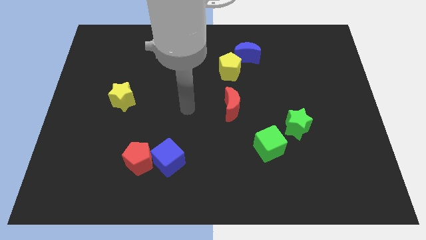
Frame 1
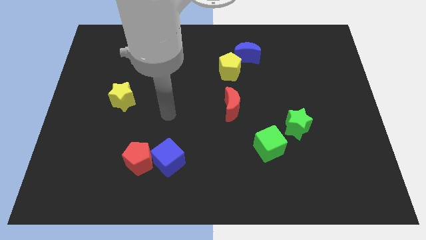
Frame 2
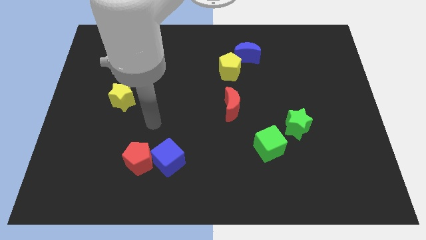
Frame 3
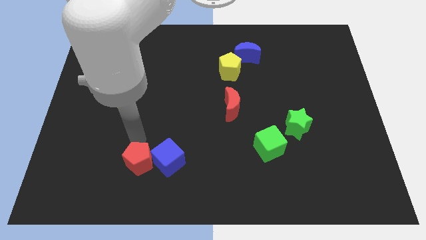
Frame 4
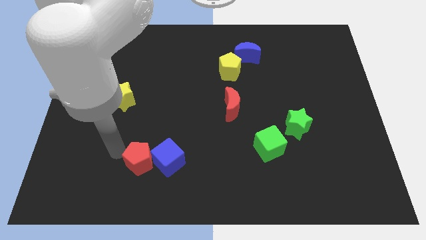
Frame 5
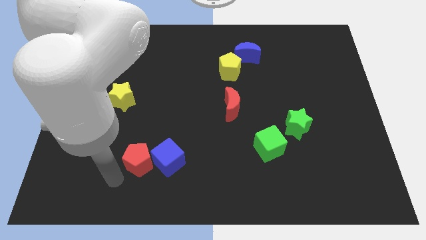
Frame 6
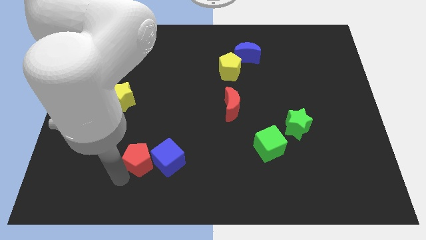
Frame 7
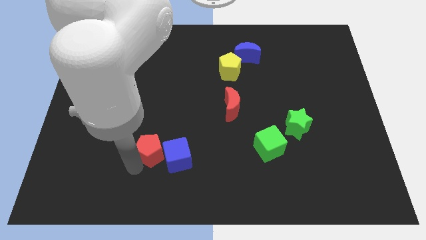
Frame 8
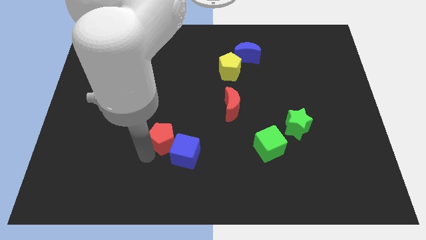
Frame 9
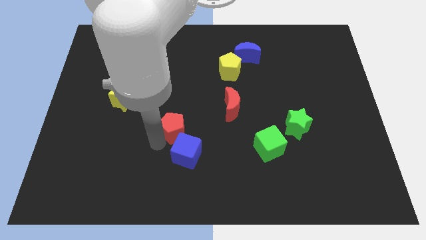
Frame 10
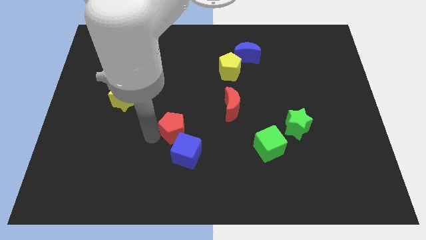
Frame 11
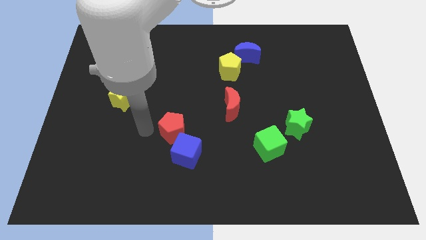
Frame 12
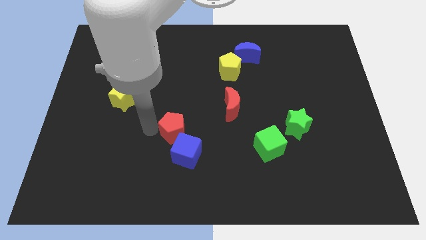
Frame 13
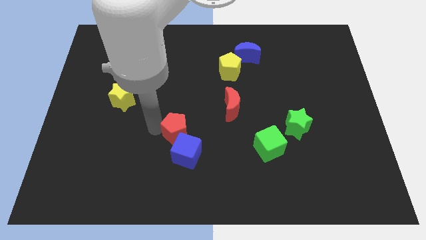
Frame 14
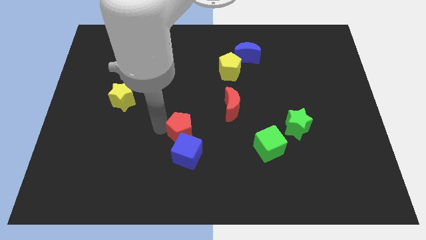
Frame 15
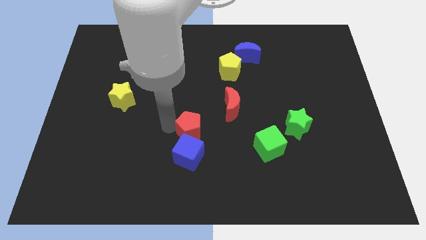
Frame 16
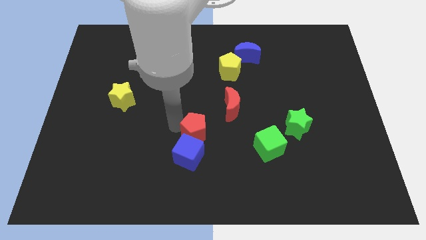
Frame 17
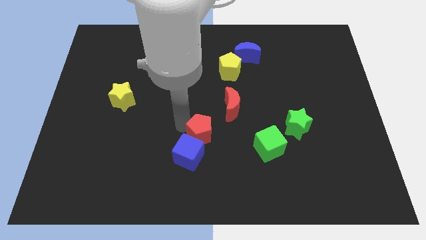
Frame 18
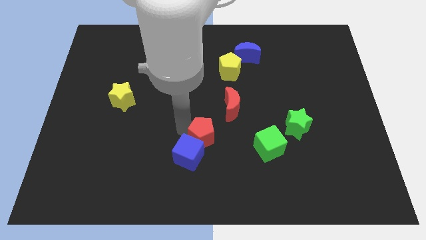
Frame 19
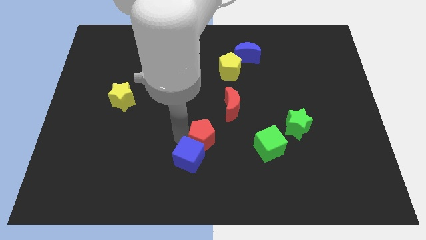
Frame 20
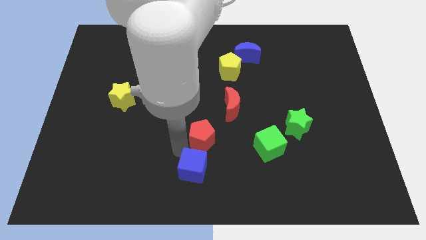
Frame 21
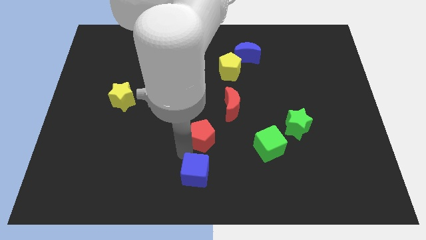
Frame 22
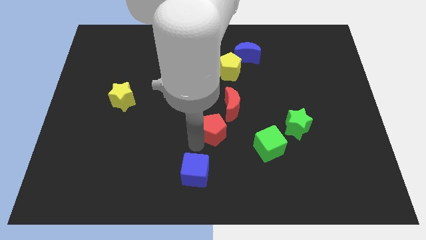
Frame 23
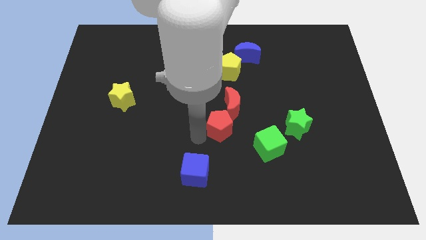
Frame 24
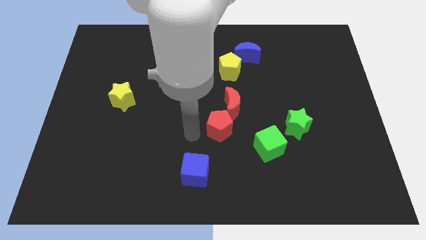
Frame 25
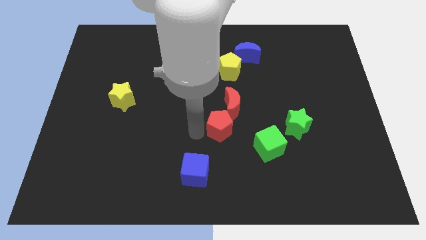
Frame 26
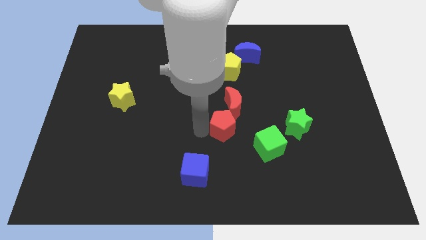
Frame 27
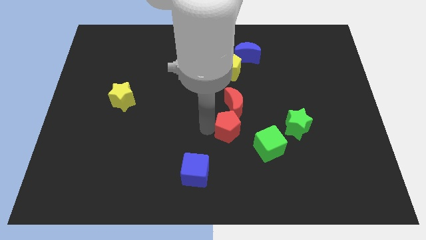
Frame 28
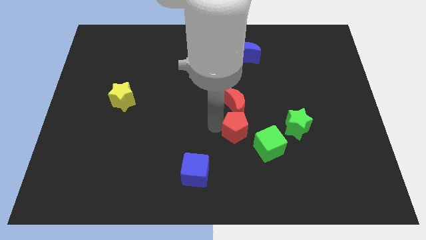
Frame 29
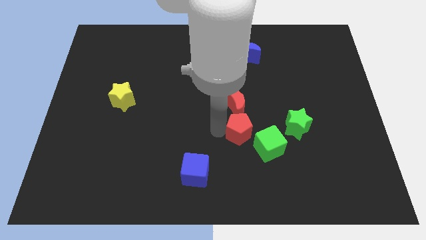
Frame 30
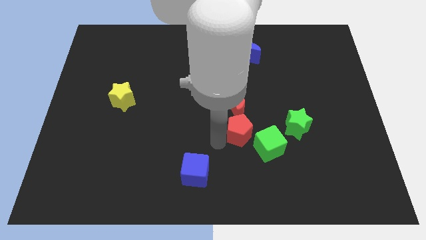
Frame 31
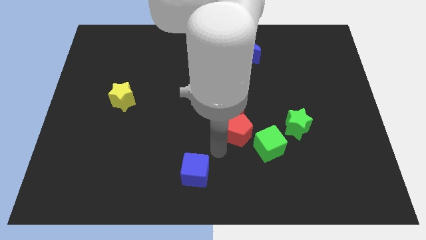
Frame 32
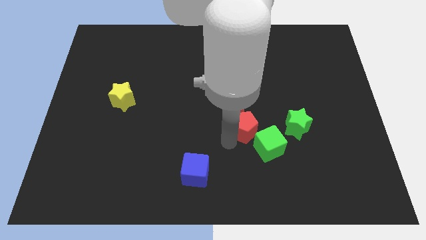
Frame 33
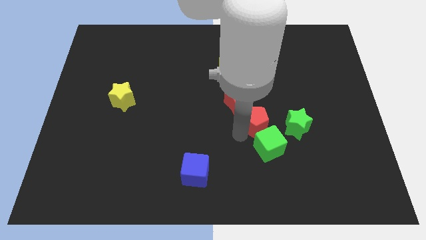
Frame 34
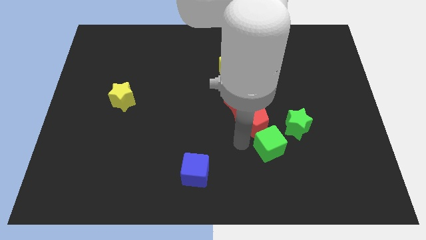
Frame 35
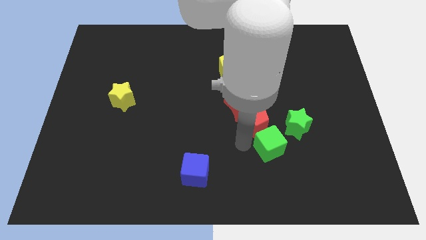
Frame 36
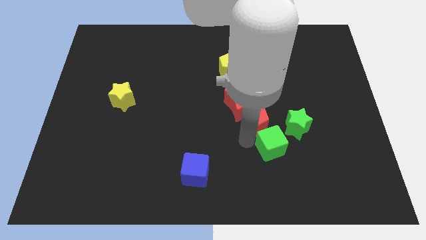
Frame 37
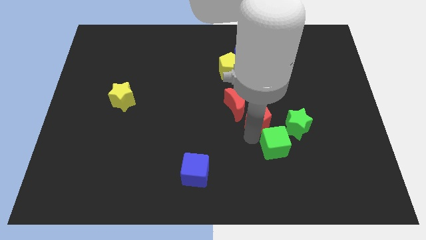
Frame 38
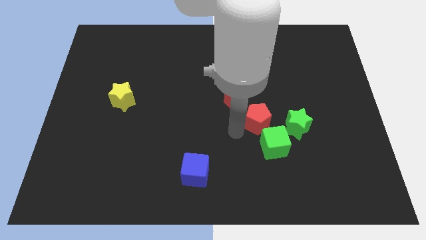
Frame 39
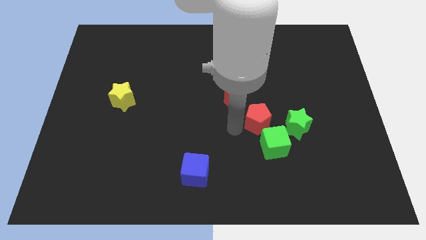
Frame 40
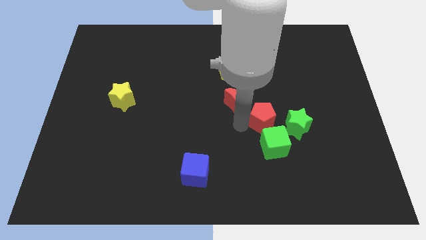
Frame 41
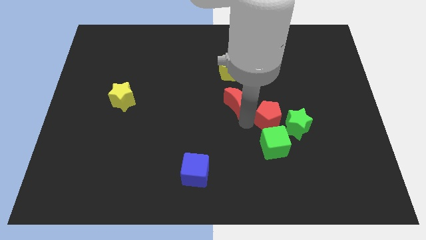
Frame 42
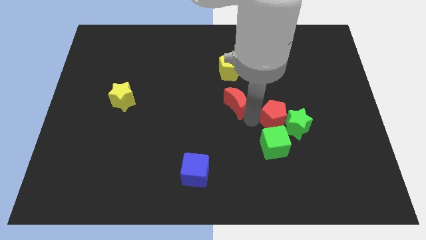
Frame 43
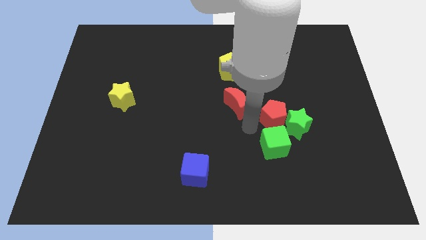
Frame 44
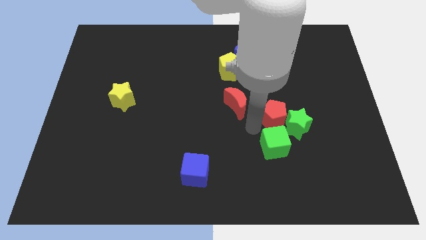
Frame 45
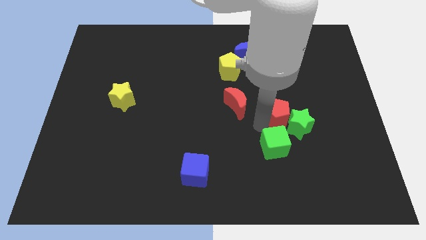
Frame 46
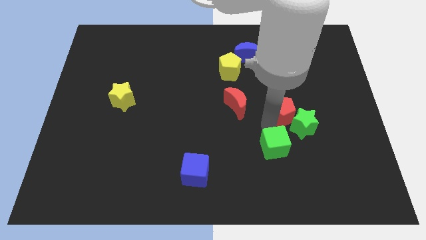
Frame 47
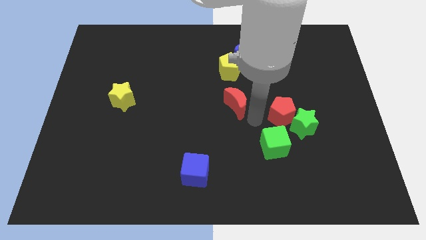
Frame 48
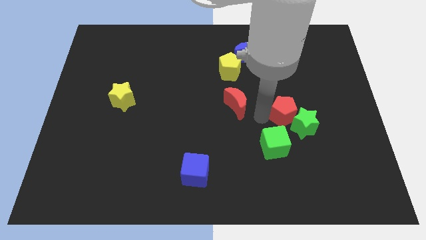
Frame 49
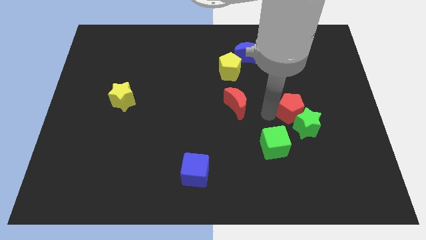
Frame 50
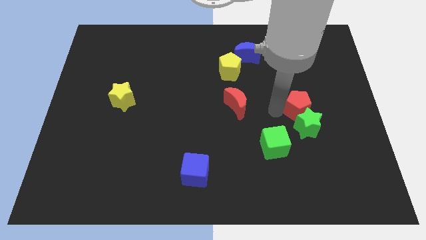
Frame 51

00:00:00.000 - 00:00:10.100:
put the red pentagon to the top right side of the green star

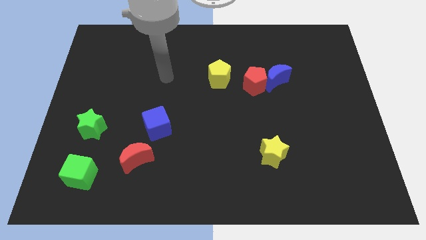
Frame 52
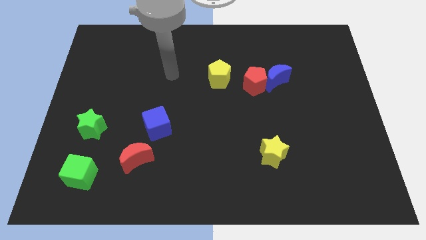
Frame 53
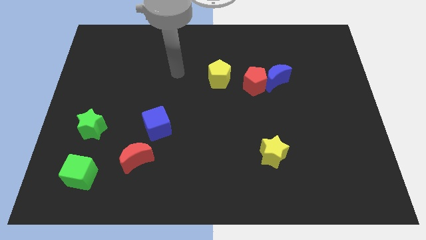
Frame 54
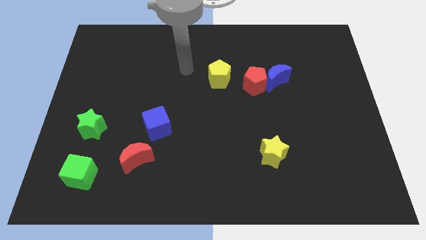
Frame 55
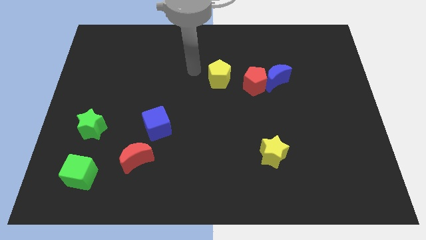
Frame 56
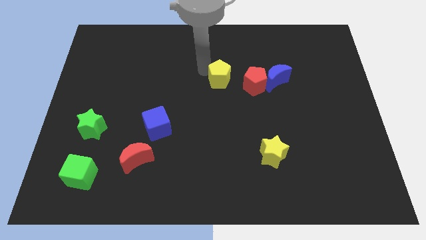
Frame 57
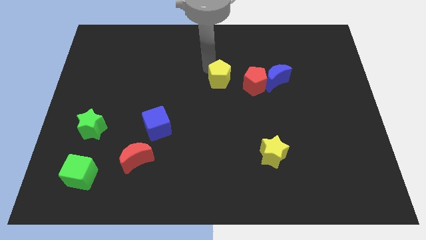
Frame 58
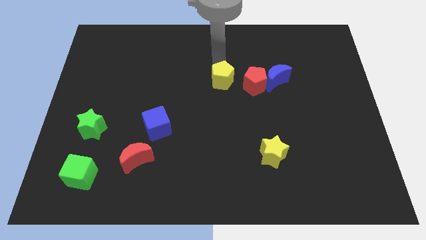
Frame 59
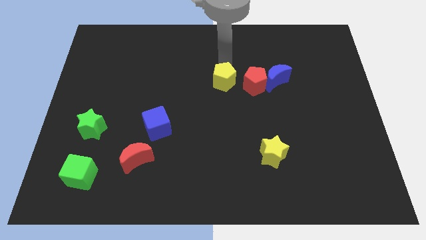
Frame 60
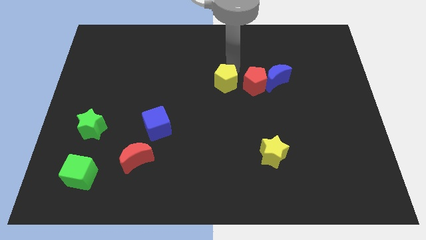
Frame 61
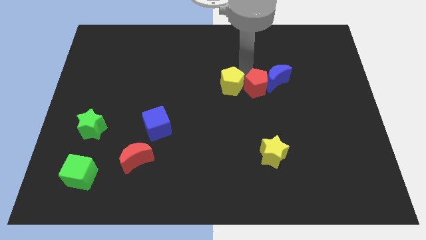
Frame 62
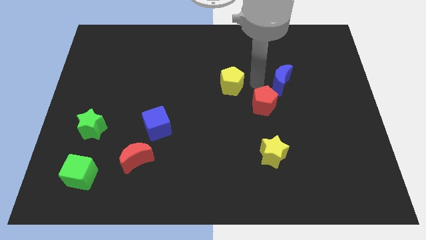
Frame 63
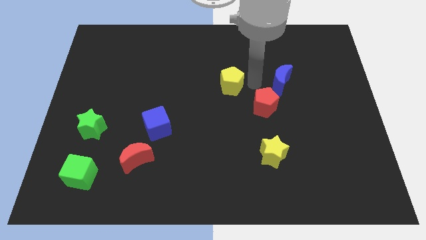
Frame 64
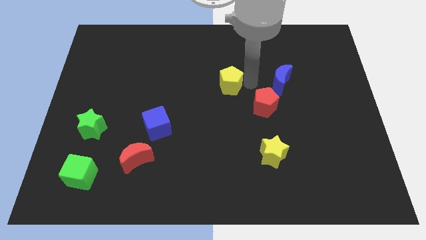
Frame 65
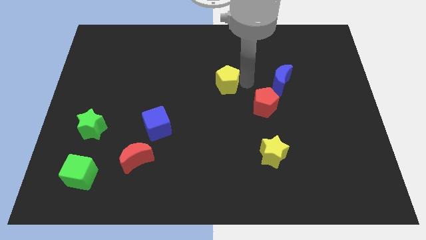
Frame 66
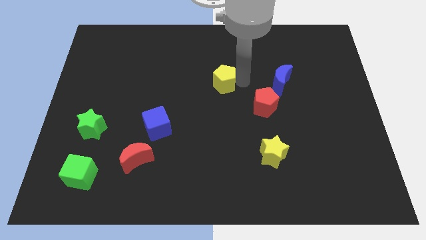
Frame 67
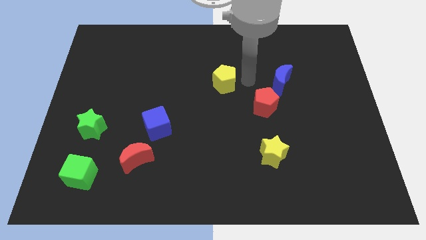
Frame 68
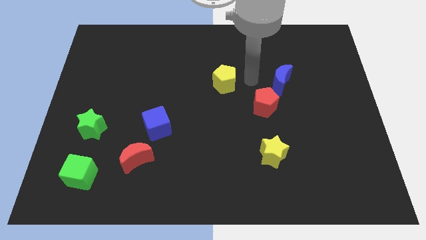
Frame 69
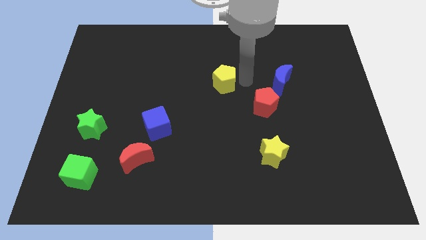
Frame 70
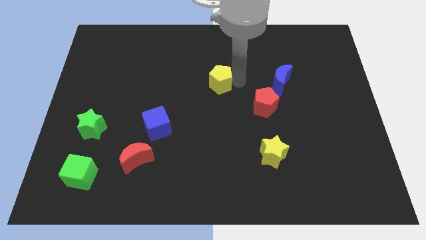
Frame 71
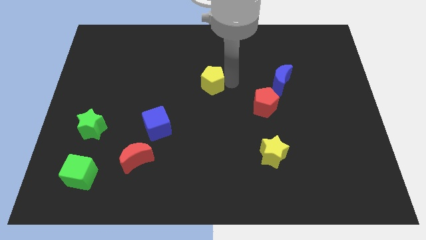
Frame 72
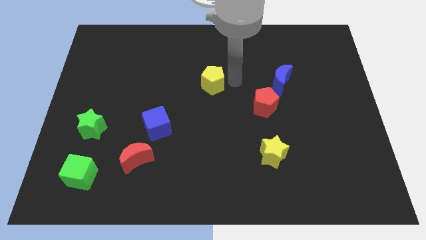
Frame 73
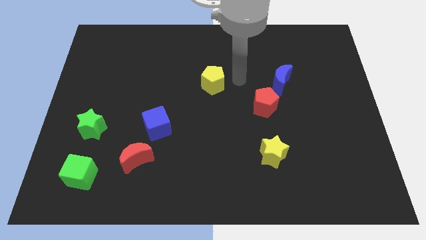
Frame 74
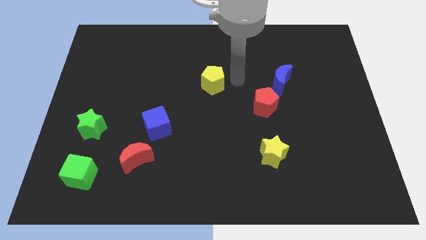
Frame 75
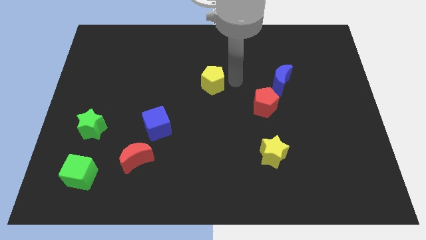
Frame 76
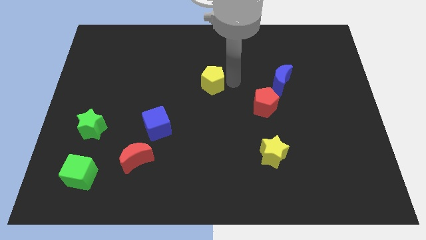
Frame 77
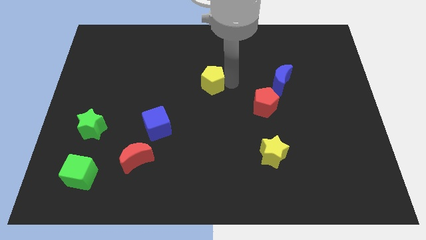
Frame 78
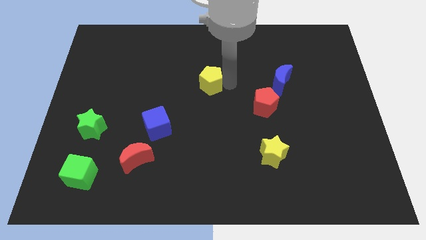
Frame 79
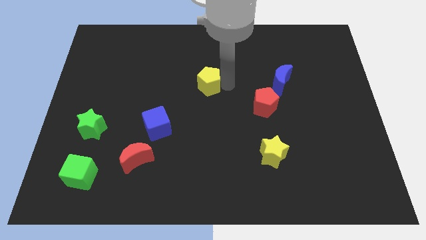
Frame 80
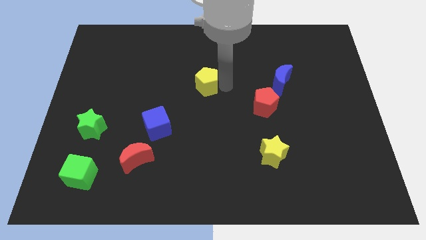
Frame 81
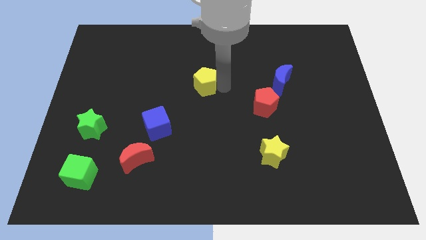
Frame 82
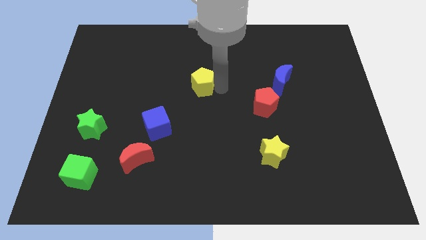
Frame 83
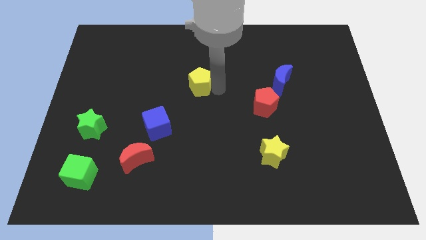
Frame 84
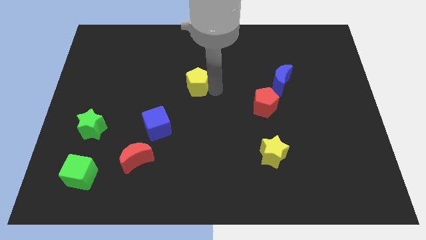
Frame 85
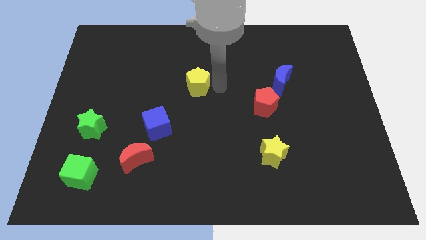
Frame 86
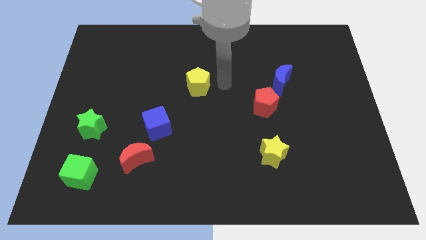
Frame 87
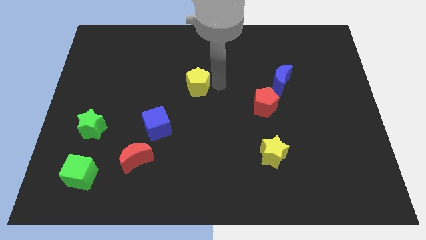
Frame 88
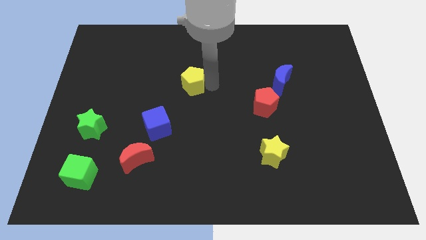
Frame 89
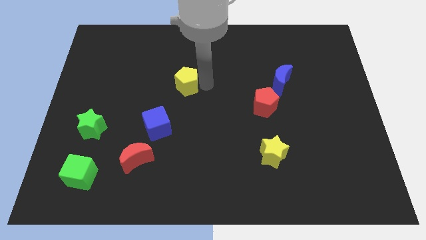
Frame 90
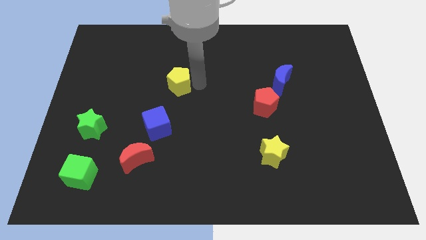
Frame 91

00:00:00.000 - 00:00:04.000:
push the yellow pentagon to the top of the blue cube
